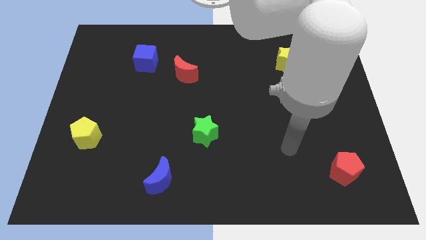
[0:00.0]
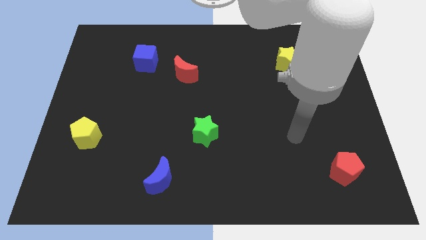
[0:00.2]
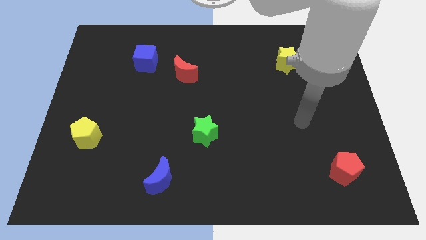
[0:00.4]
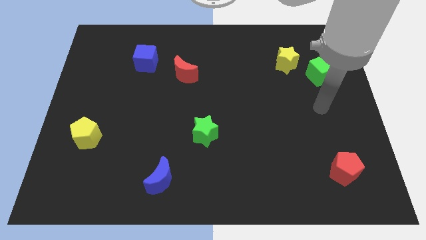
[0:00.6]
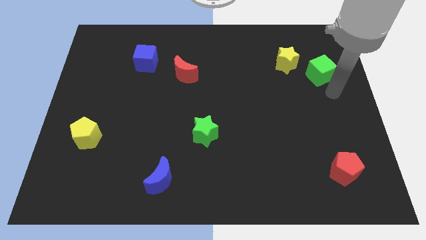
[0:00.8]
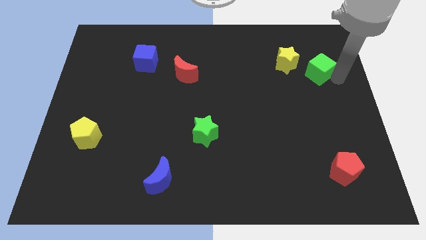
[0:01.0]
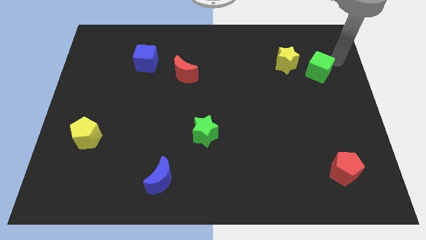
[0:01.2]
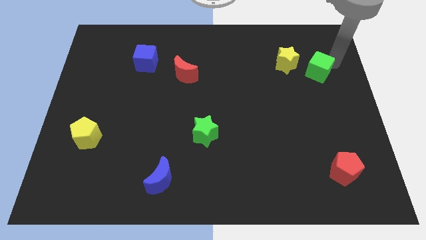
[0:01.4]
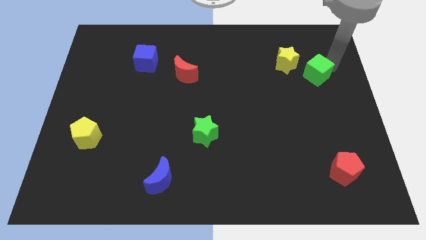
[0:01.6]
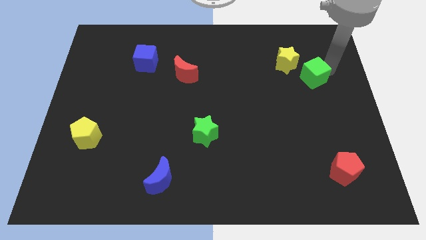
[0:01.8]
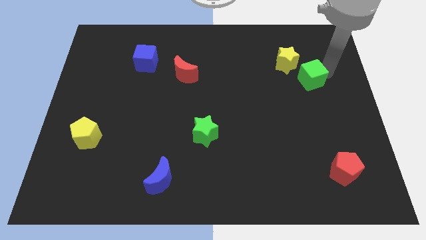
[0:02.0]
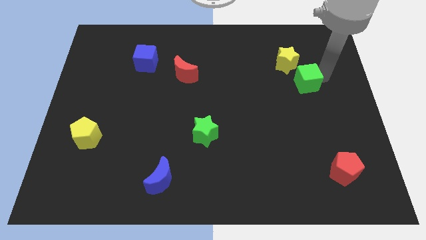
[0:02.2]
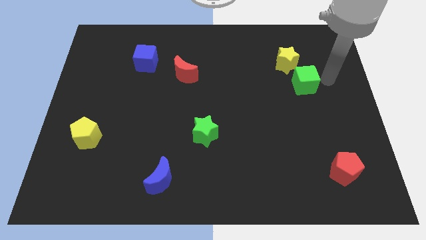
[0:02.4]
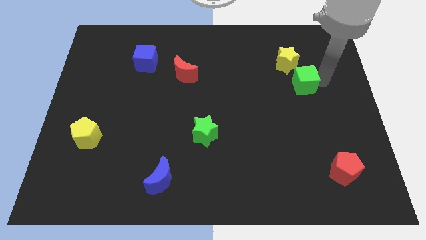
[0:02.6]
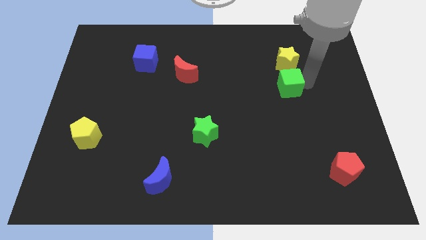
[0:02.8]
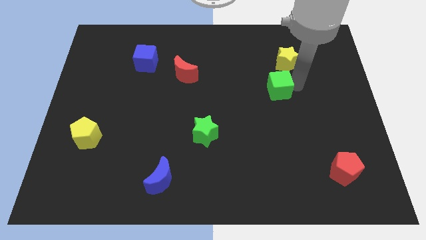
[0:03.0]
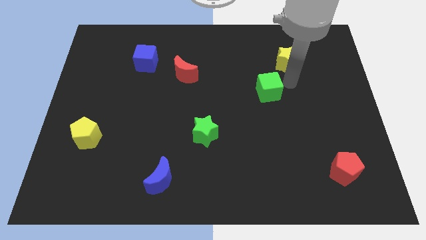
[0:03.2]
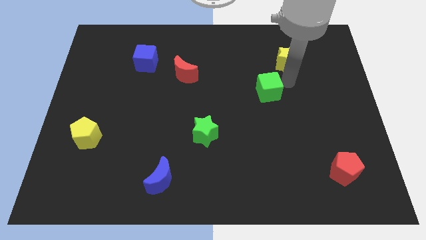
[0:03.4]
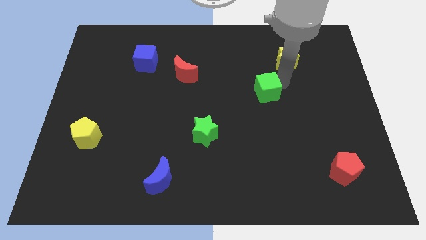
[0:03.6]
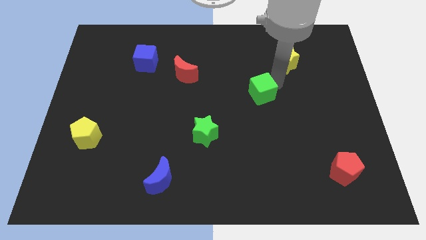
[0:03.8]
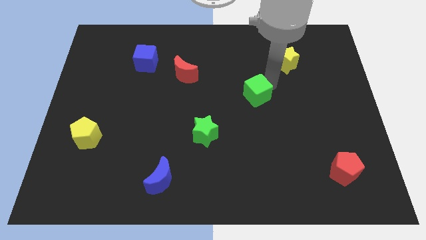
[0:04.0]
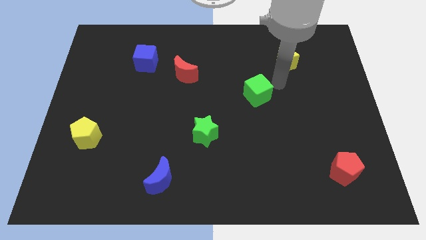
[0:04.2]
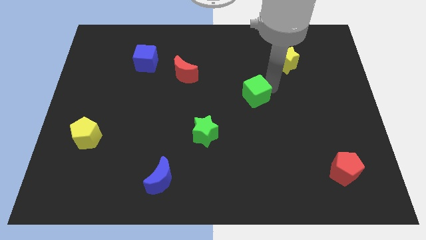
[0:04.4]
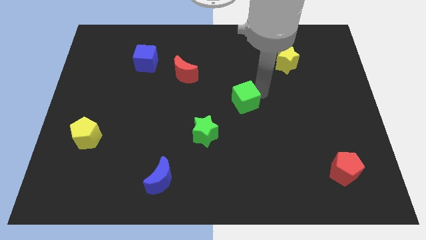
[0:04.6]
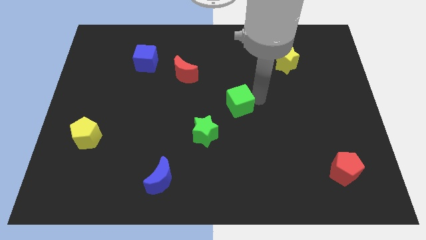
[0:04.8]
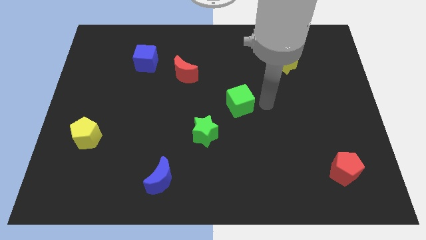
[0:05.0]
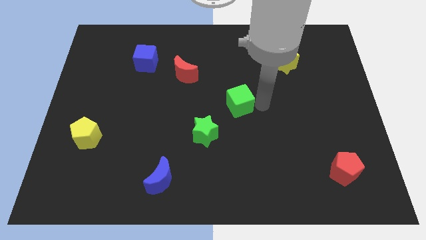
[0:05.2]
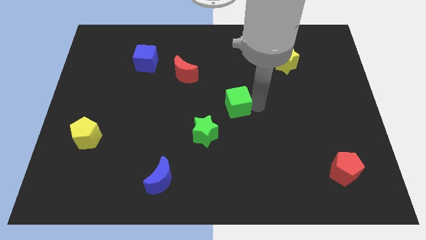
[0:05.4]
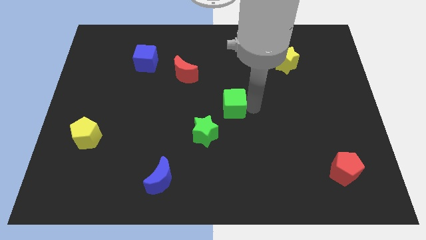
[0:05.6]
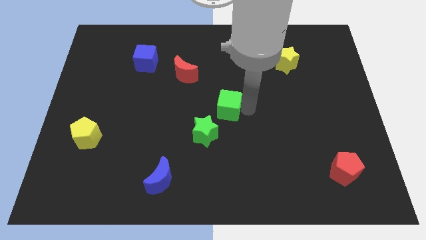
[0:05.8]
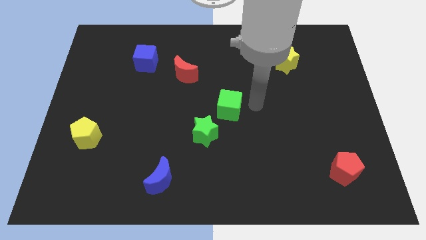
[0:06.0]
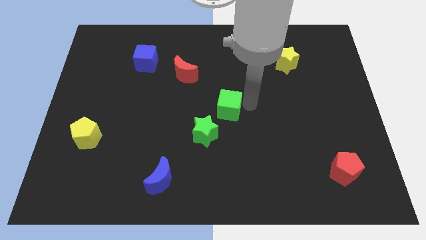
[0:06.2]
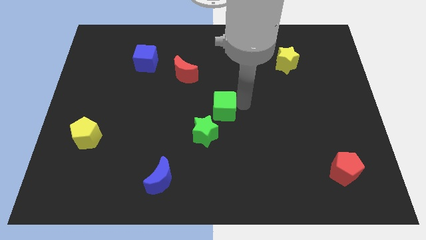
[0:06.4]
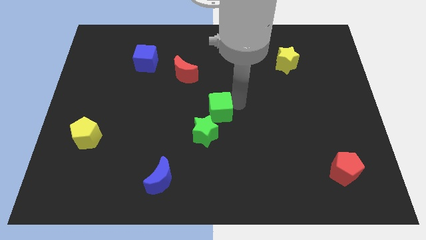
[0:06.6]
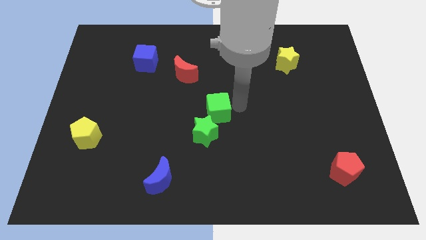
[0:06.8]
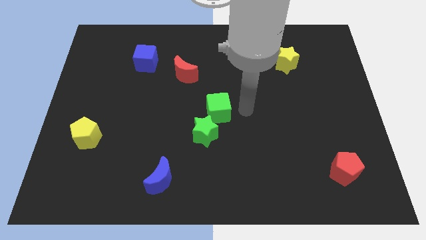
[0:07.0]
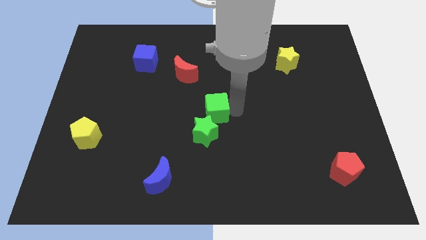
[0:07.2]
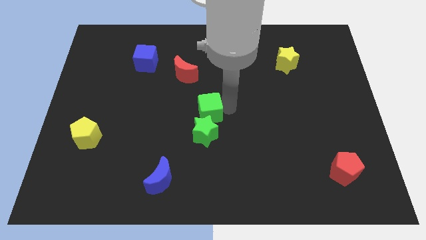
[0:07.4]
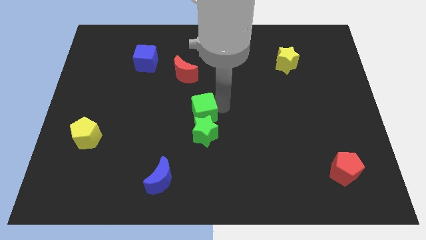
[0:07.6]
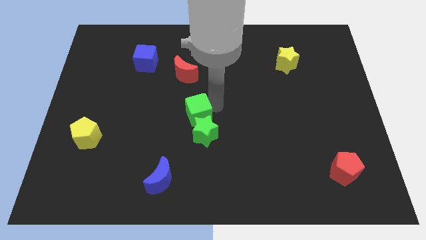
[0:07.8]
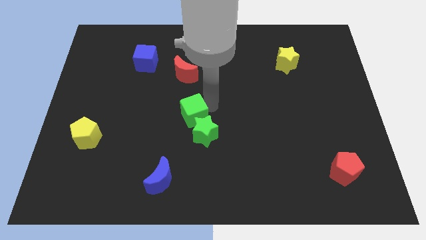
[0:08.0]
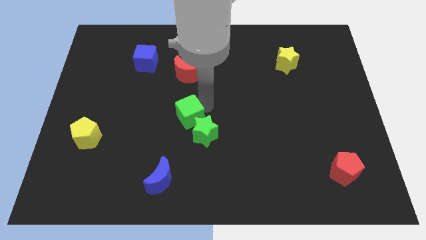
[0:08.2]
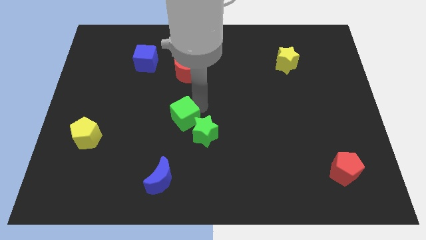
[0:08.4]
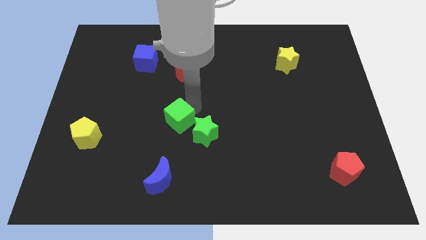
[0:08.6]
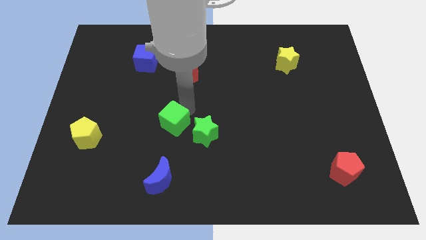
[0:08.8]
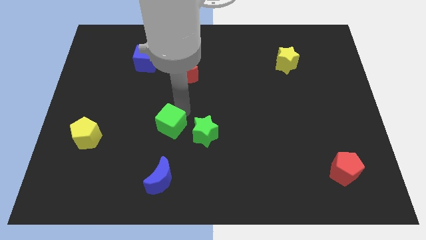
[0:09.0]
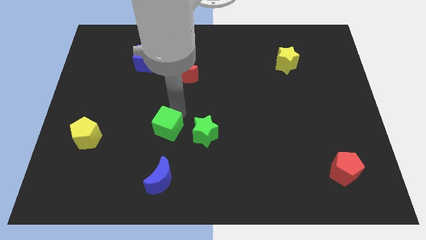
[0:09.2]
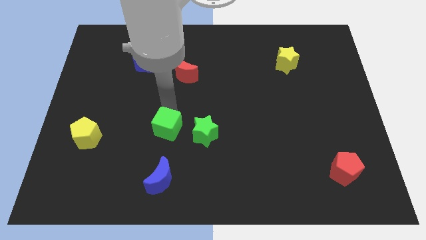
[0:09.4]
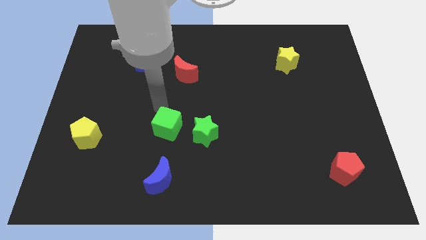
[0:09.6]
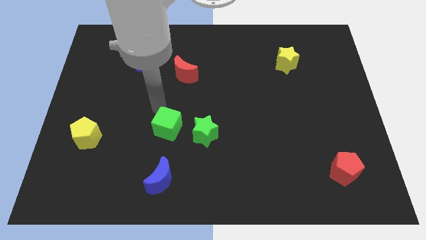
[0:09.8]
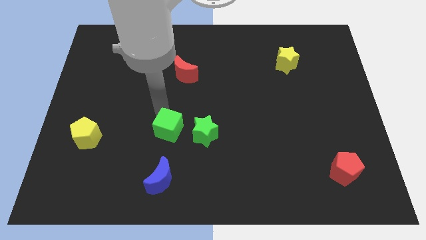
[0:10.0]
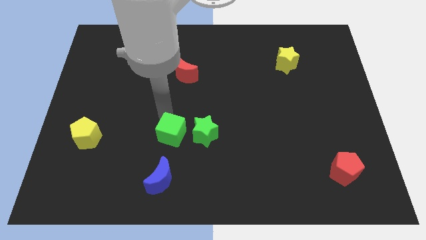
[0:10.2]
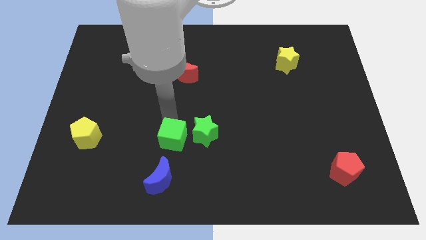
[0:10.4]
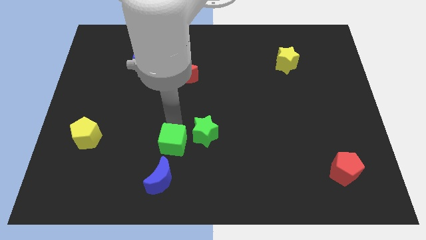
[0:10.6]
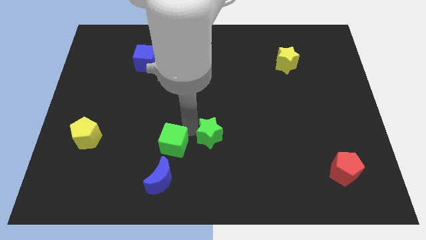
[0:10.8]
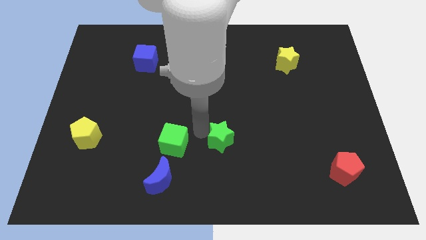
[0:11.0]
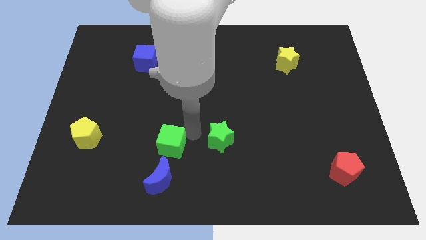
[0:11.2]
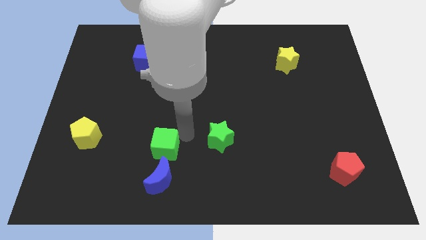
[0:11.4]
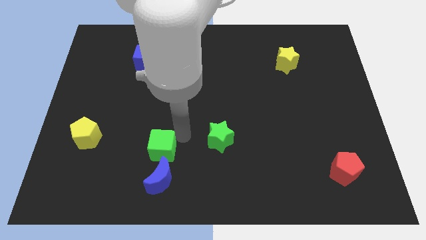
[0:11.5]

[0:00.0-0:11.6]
push the green cube diagonally up and to the left of the blue moon

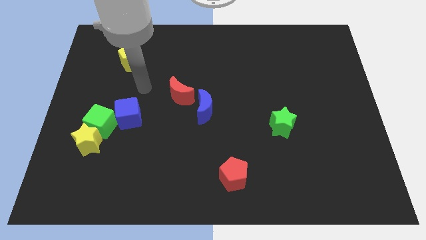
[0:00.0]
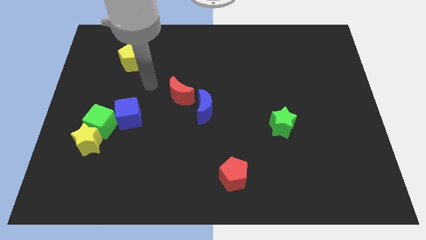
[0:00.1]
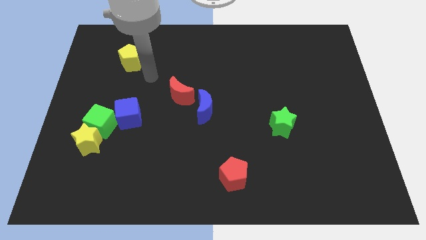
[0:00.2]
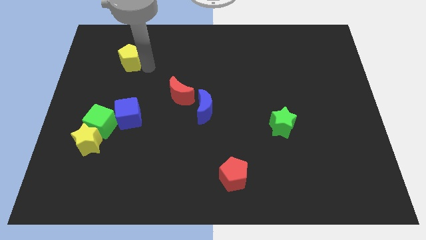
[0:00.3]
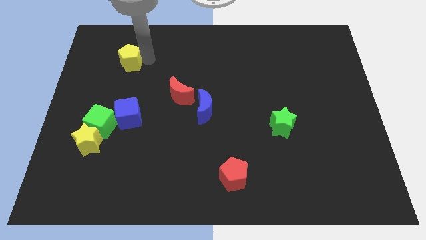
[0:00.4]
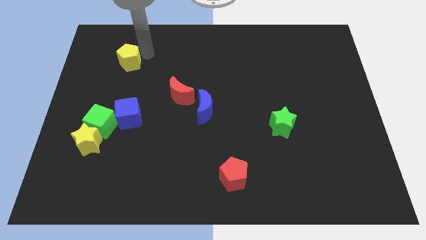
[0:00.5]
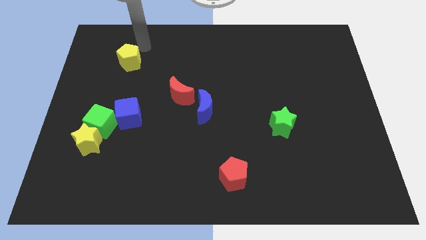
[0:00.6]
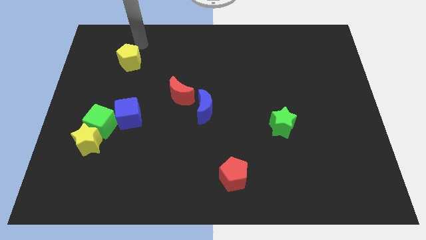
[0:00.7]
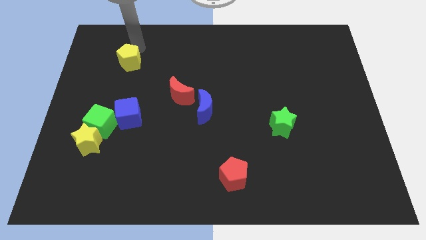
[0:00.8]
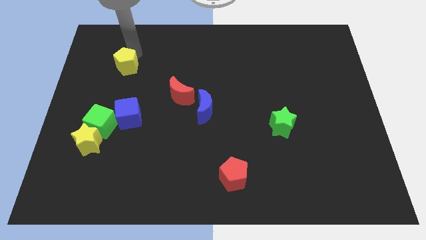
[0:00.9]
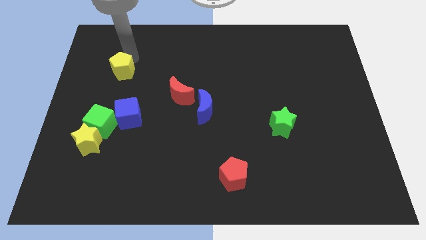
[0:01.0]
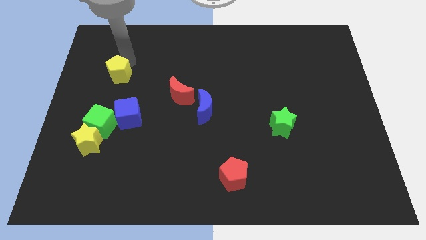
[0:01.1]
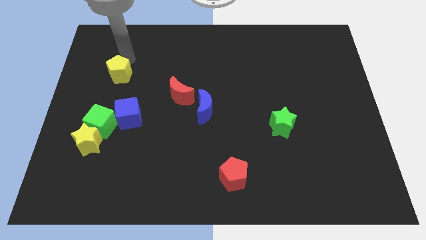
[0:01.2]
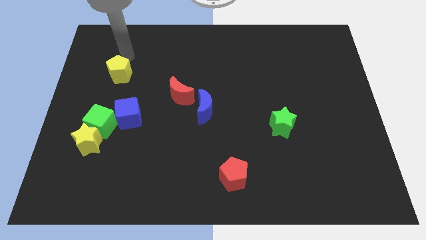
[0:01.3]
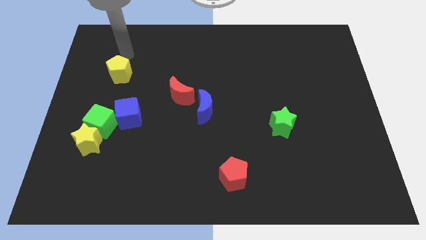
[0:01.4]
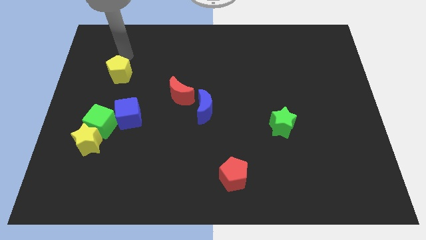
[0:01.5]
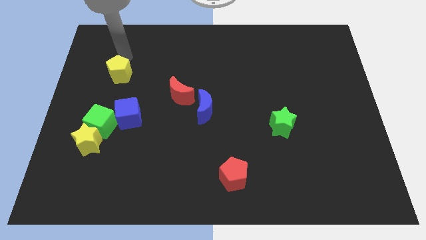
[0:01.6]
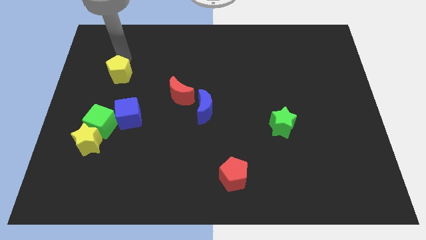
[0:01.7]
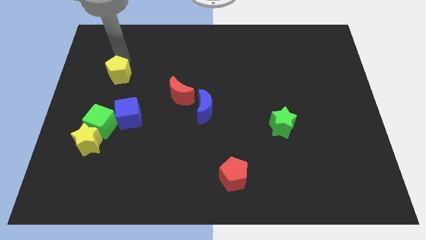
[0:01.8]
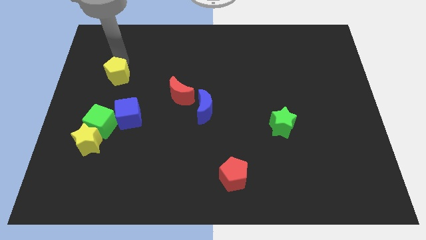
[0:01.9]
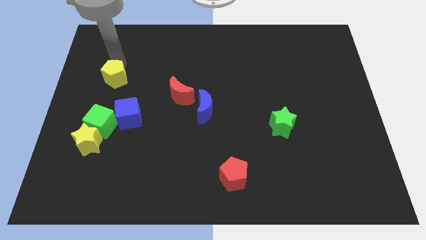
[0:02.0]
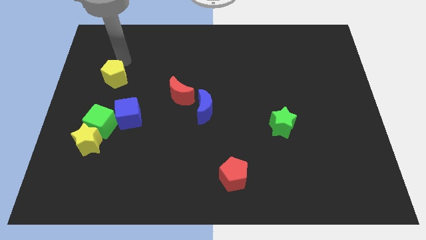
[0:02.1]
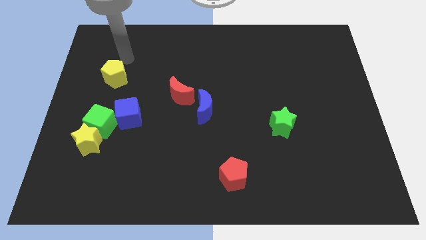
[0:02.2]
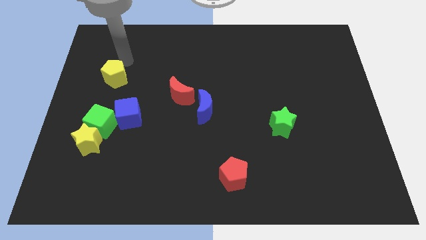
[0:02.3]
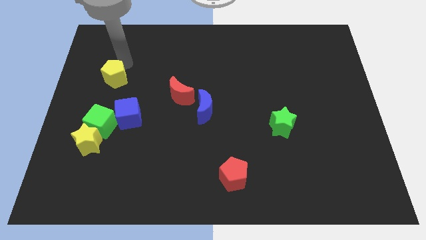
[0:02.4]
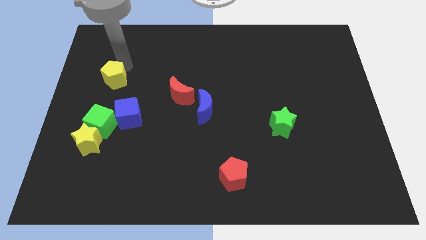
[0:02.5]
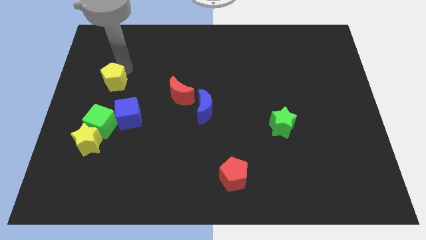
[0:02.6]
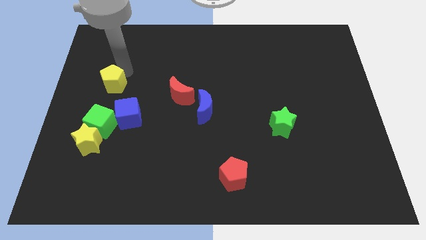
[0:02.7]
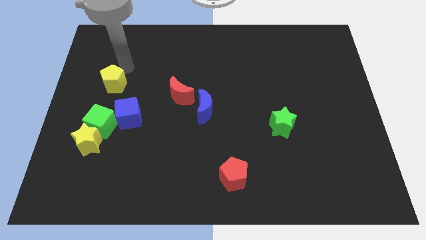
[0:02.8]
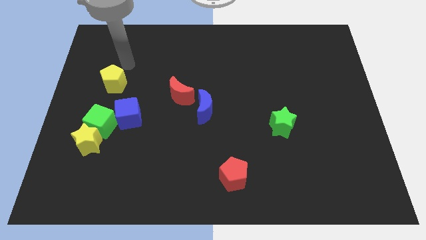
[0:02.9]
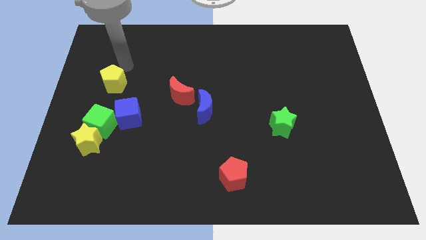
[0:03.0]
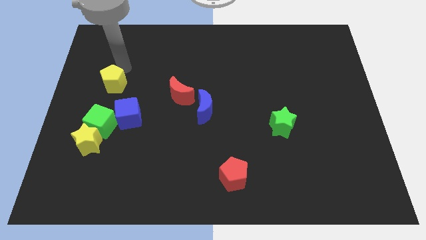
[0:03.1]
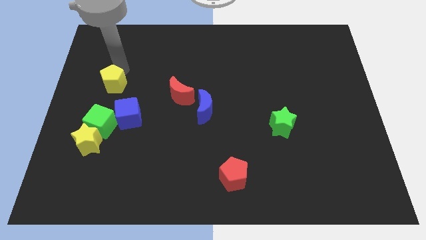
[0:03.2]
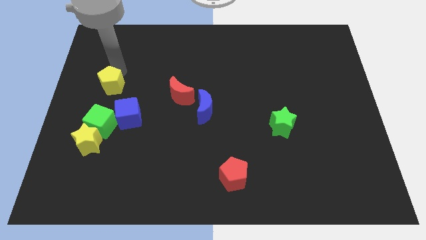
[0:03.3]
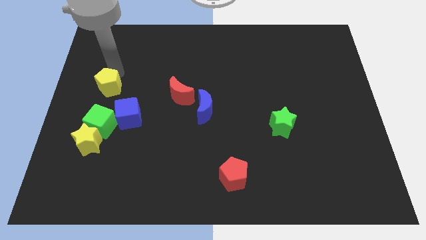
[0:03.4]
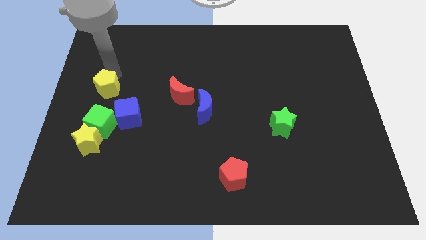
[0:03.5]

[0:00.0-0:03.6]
put the yellow pentagon to the top of the yellow star
